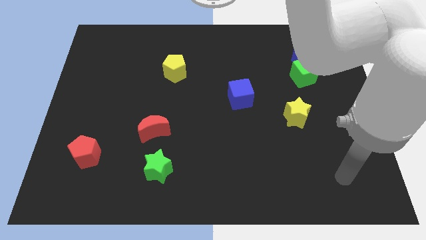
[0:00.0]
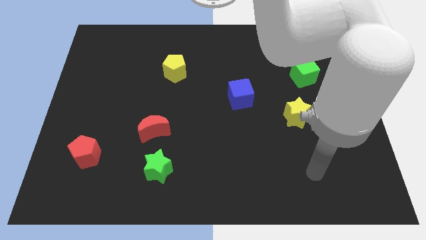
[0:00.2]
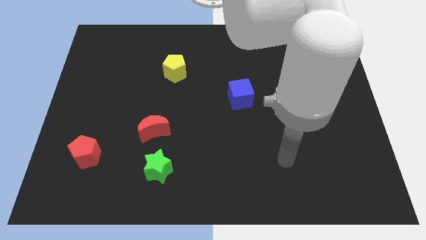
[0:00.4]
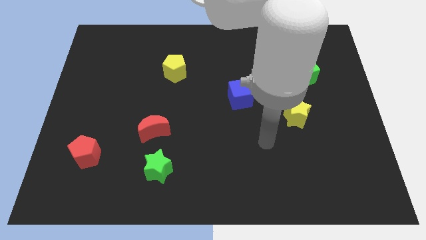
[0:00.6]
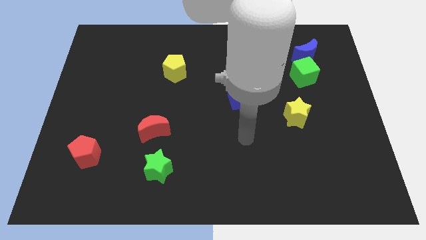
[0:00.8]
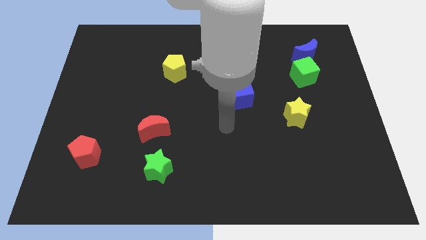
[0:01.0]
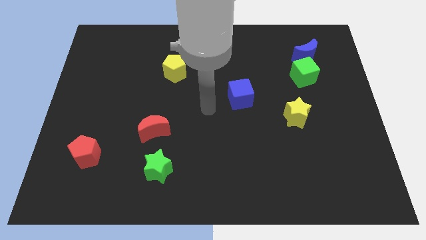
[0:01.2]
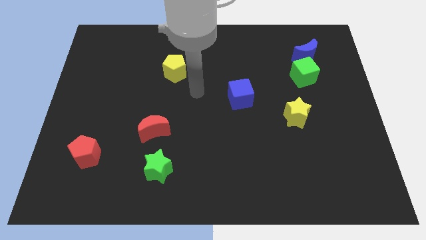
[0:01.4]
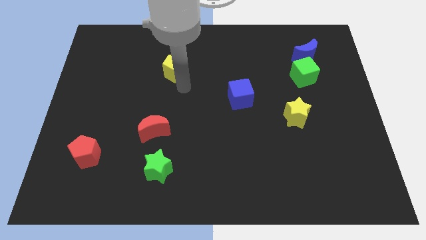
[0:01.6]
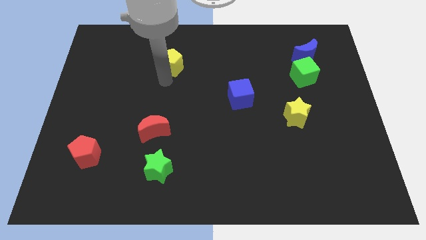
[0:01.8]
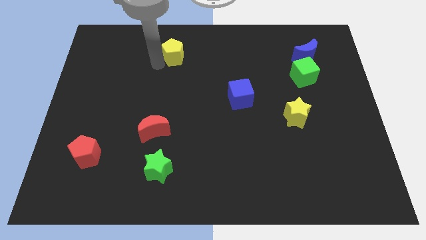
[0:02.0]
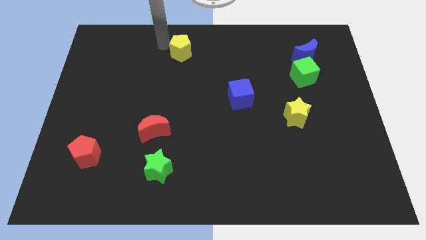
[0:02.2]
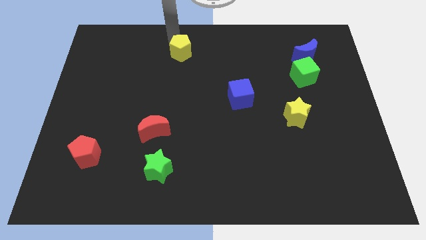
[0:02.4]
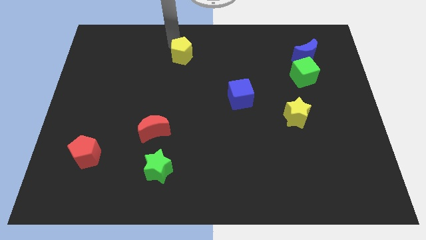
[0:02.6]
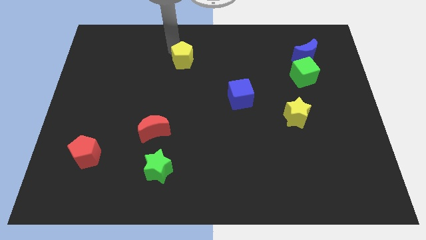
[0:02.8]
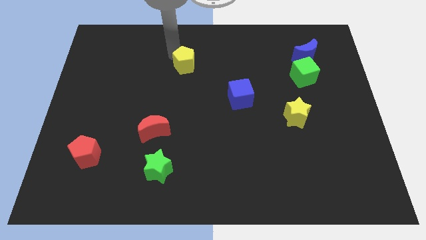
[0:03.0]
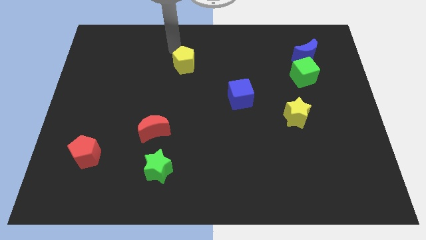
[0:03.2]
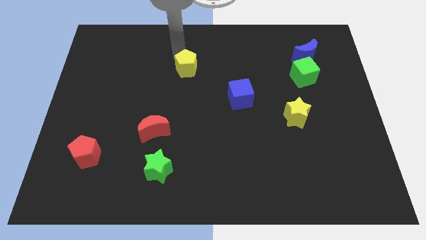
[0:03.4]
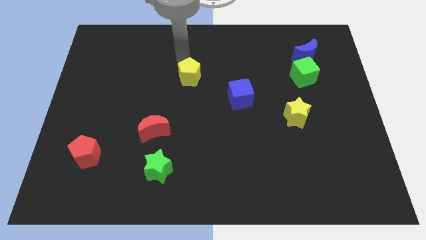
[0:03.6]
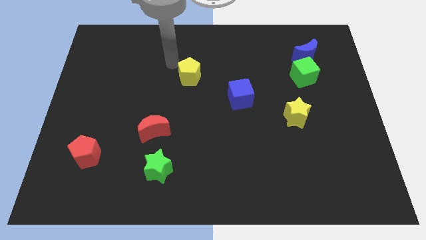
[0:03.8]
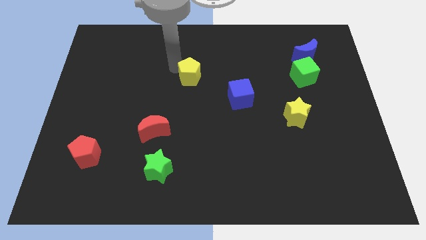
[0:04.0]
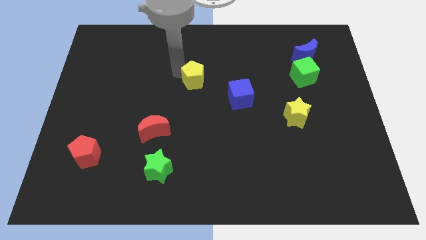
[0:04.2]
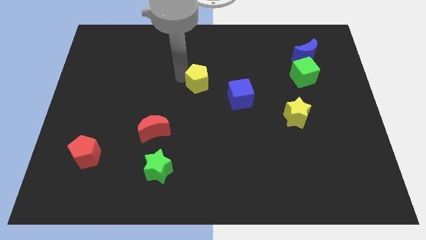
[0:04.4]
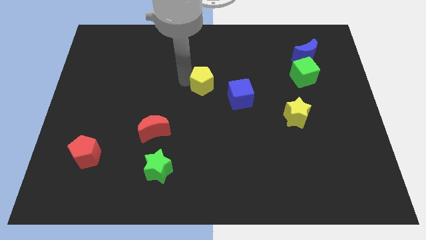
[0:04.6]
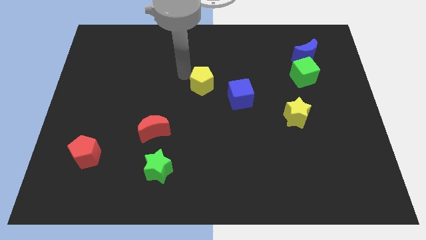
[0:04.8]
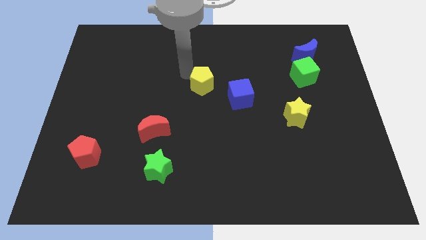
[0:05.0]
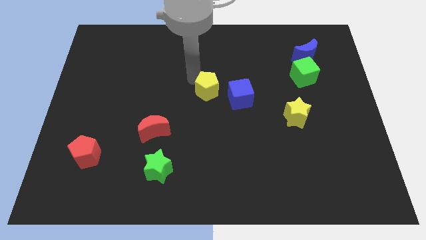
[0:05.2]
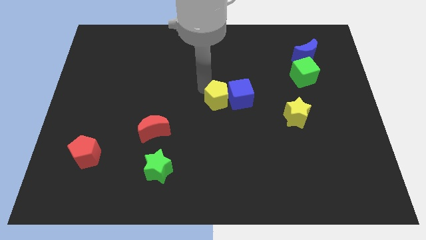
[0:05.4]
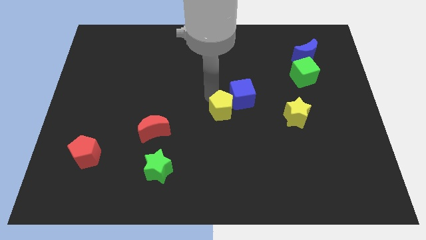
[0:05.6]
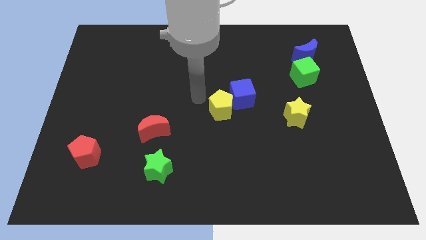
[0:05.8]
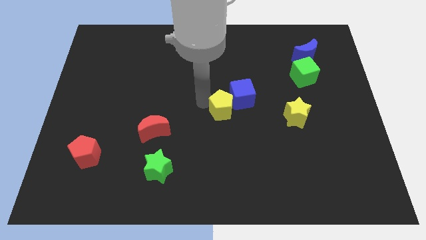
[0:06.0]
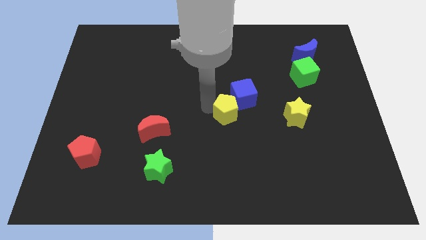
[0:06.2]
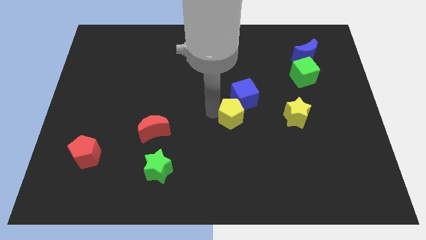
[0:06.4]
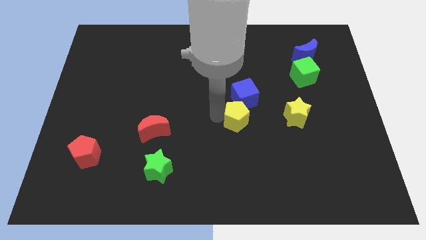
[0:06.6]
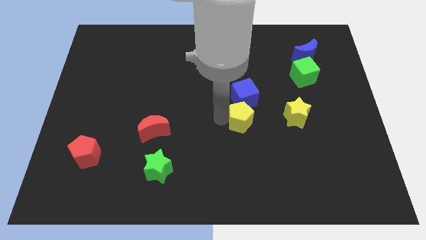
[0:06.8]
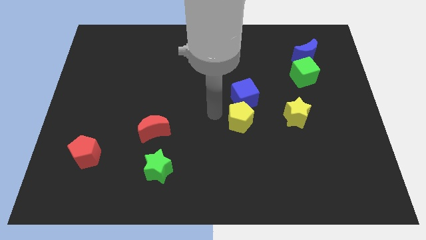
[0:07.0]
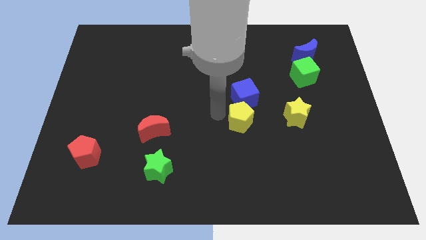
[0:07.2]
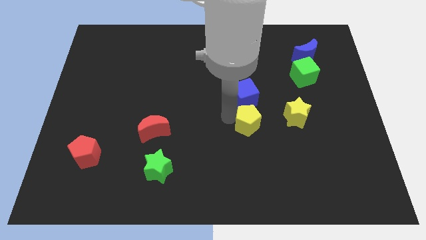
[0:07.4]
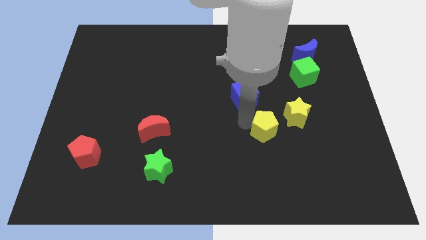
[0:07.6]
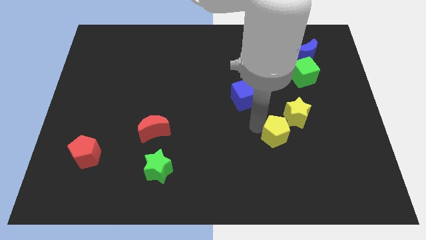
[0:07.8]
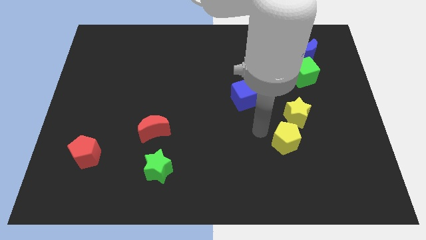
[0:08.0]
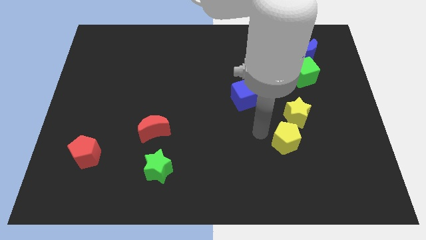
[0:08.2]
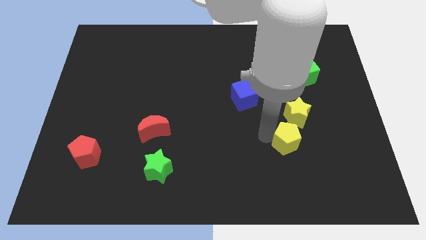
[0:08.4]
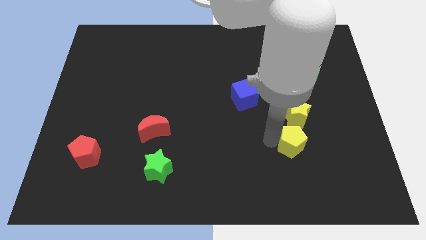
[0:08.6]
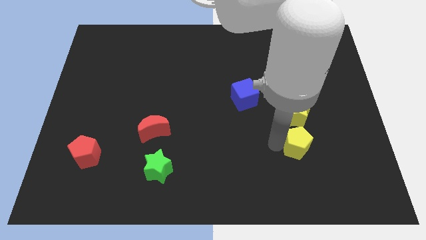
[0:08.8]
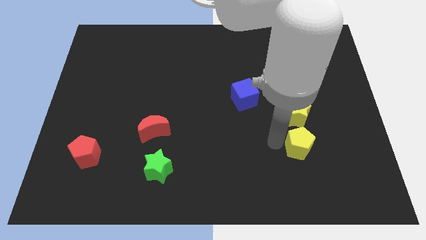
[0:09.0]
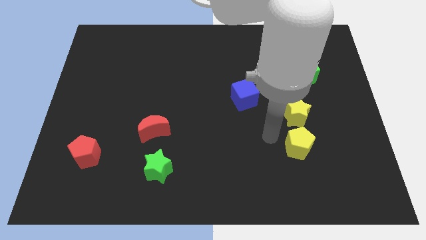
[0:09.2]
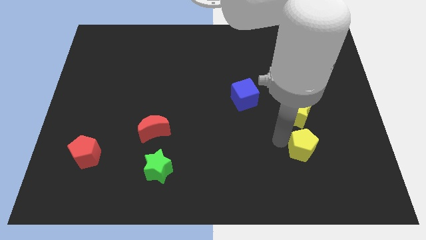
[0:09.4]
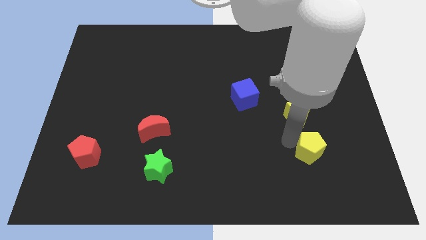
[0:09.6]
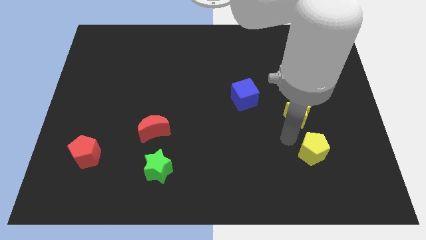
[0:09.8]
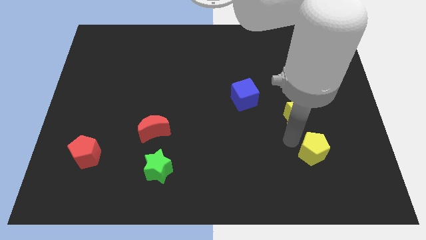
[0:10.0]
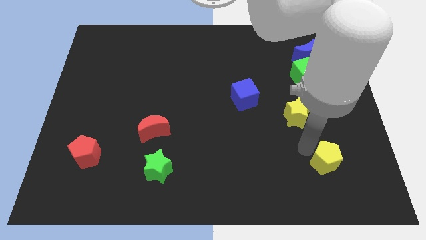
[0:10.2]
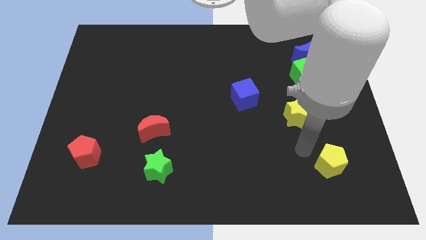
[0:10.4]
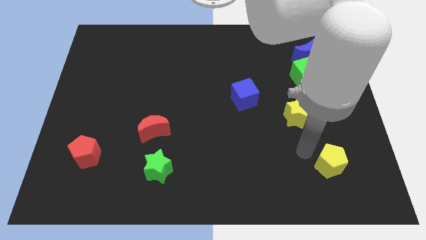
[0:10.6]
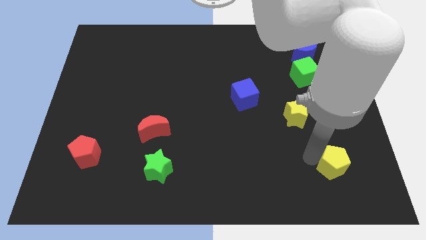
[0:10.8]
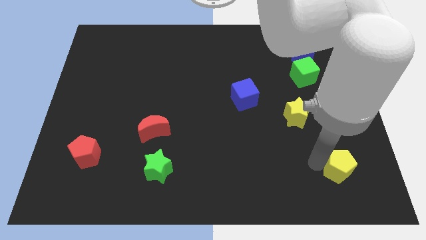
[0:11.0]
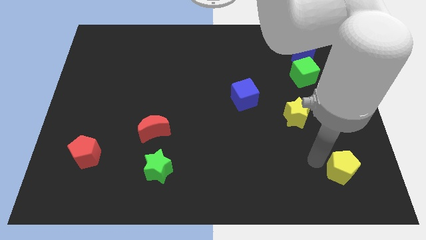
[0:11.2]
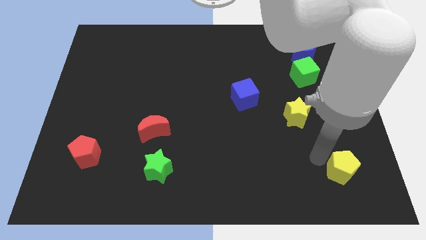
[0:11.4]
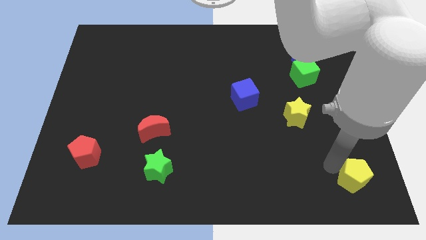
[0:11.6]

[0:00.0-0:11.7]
slide the yellow pentagon to the bottom right
